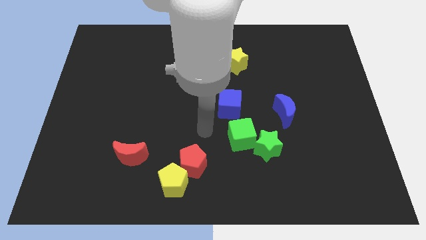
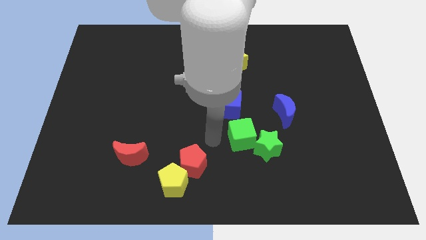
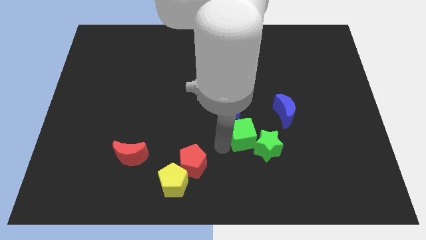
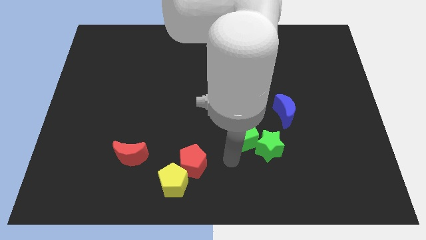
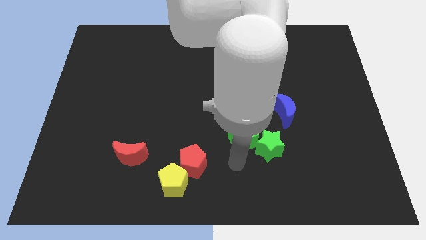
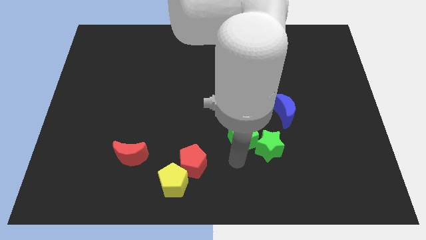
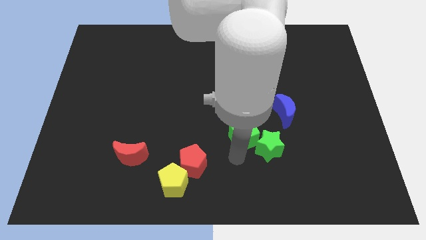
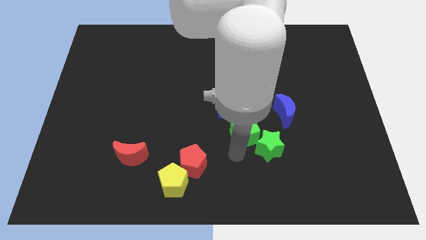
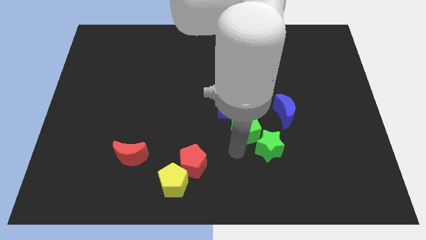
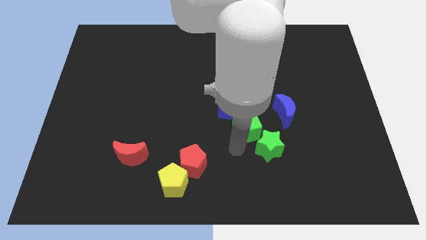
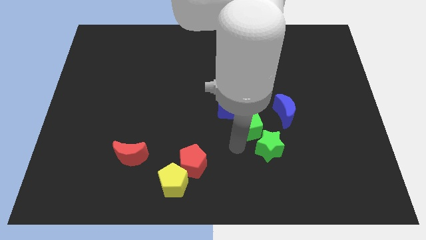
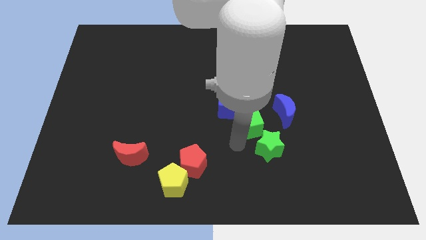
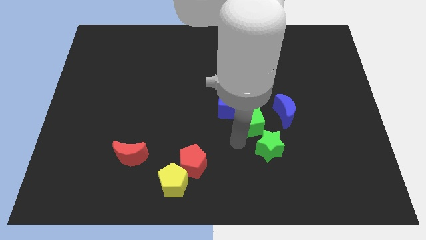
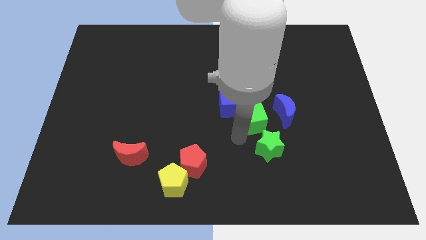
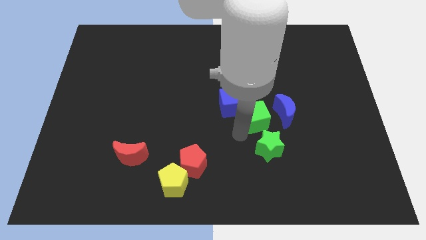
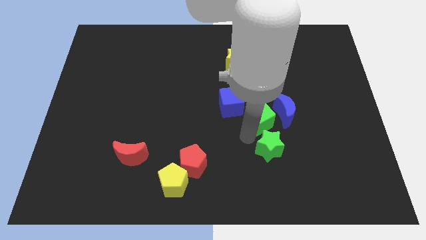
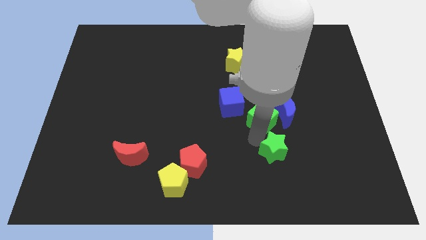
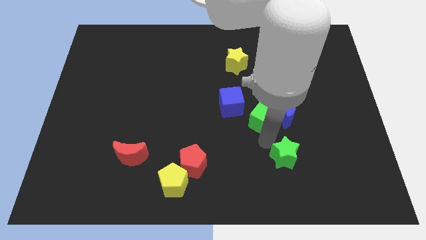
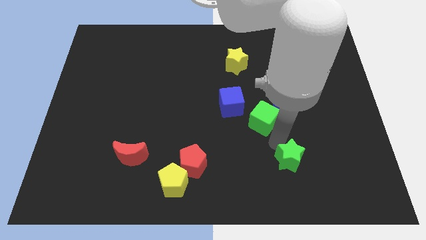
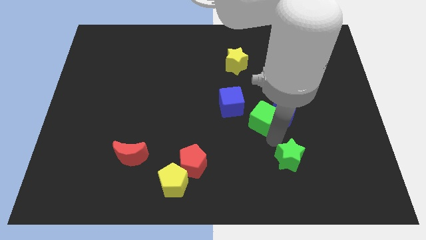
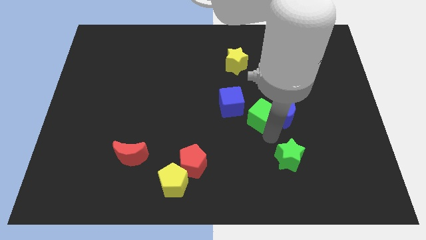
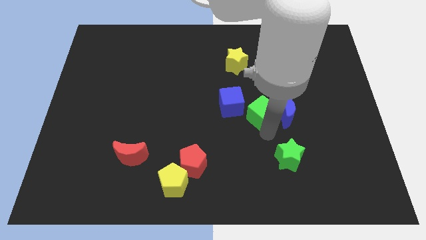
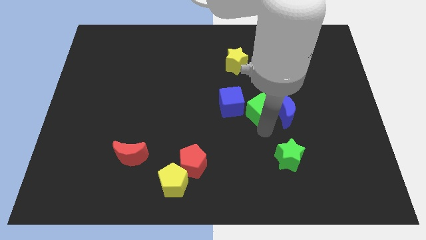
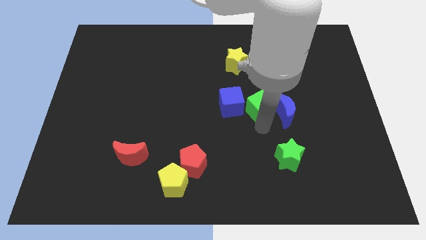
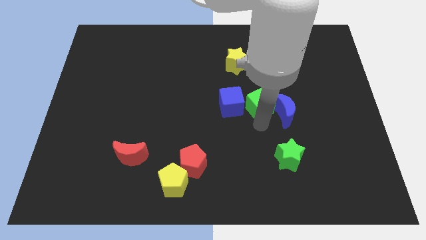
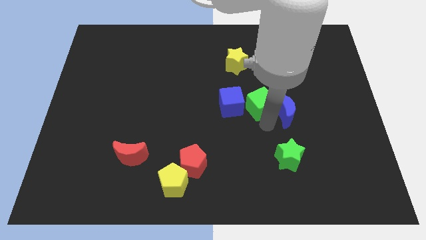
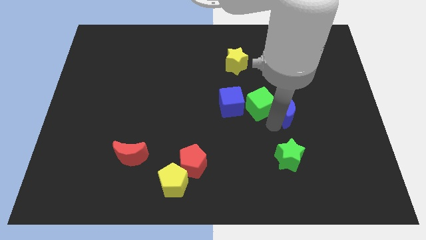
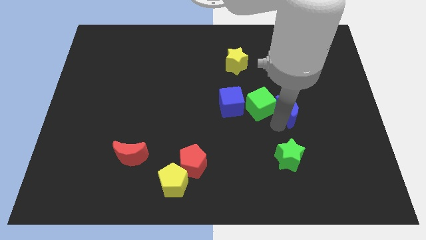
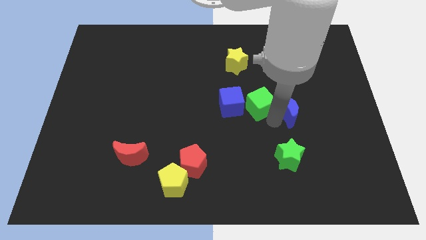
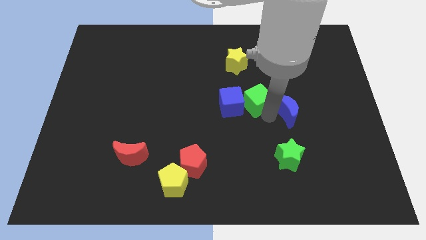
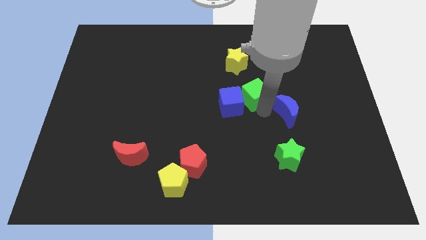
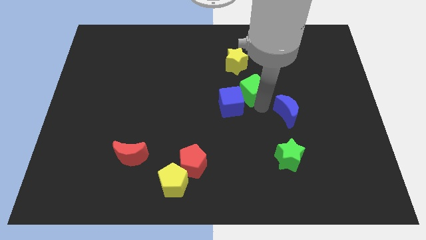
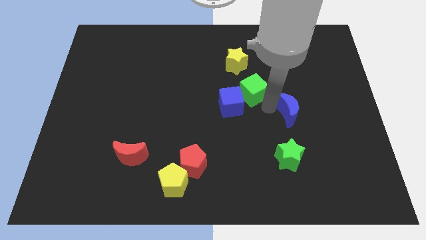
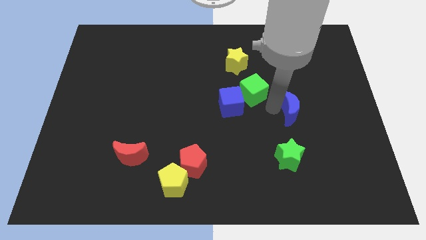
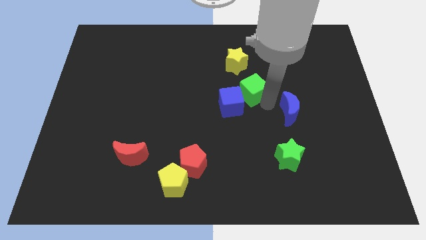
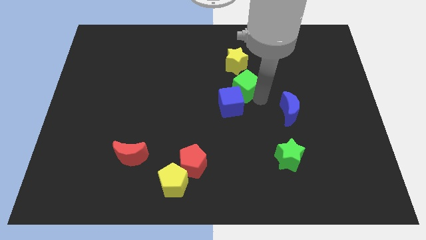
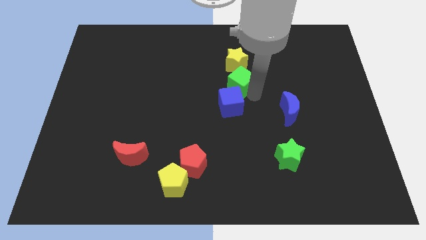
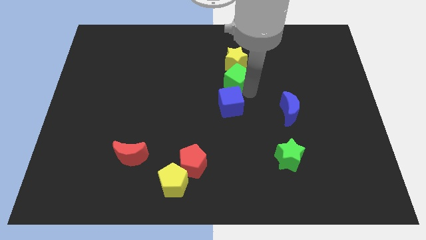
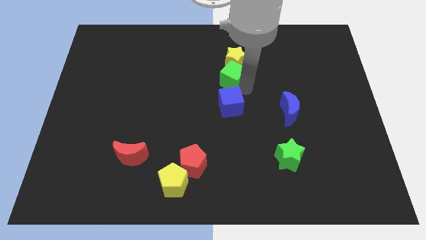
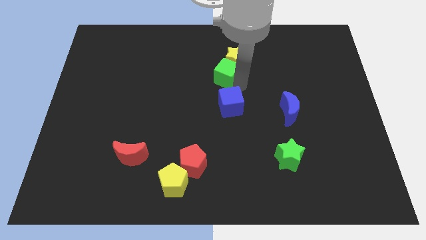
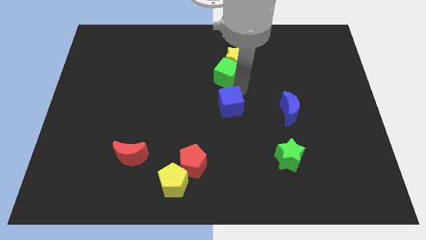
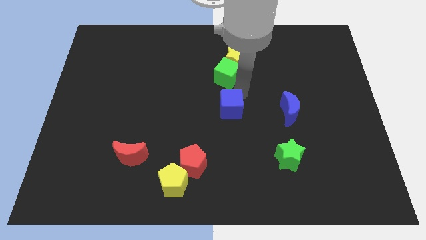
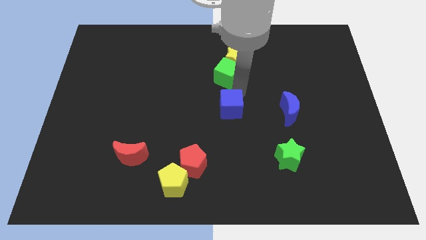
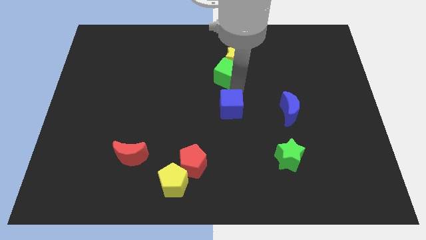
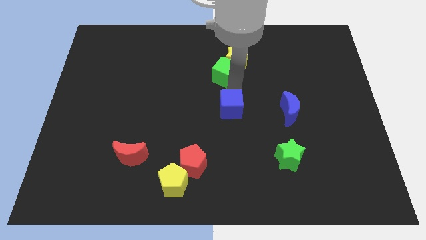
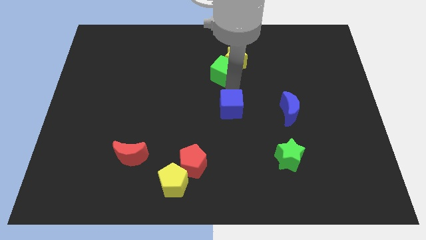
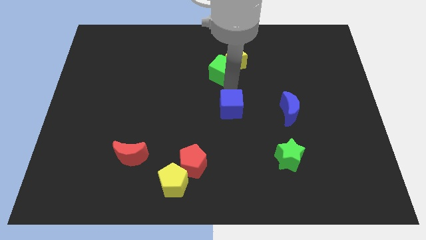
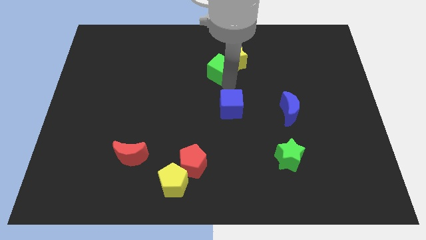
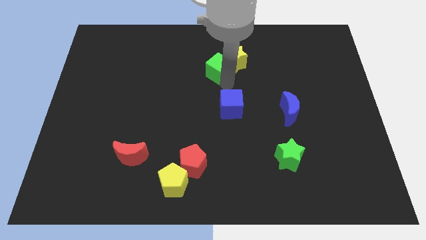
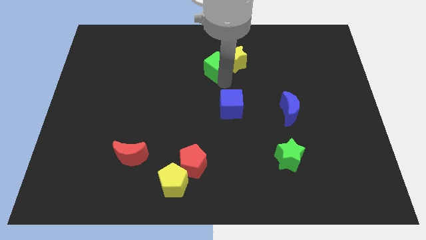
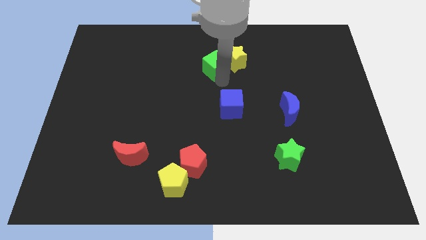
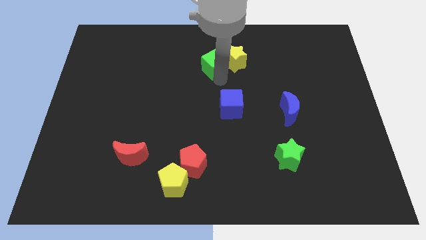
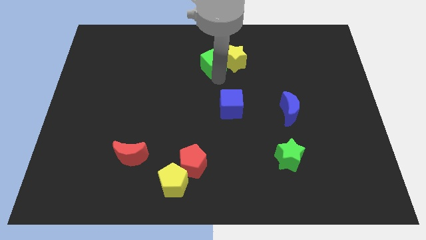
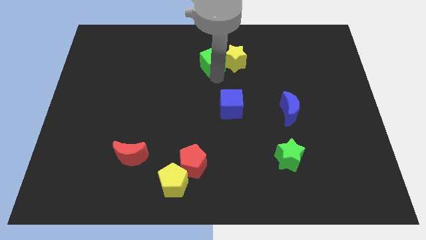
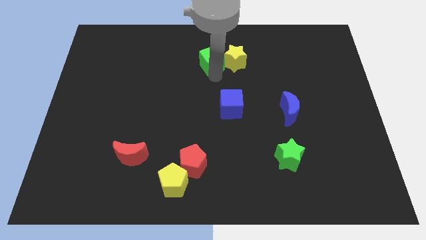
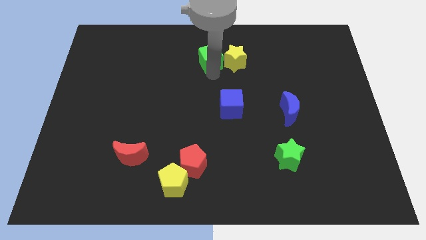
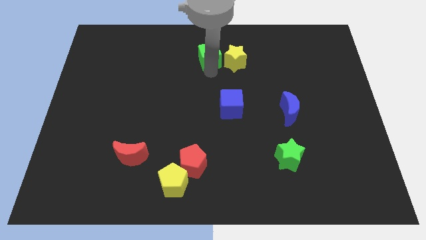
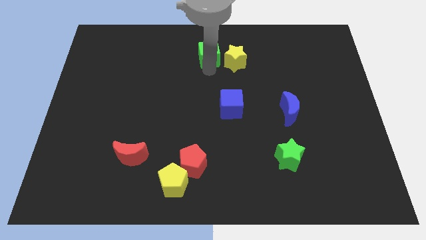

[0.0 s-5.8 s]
push the green cube to the towards your base
